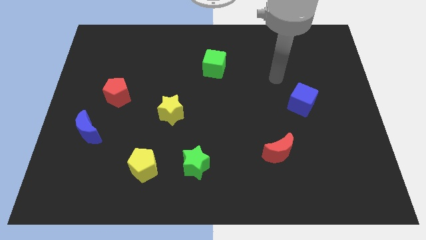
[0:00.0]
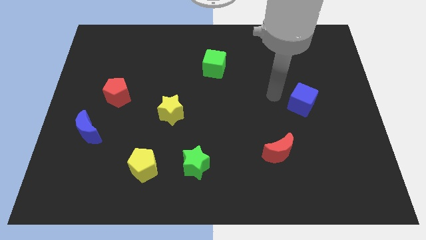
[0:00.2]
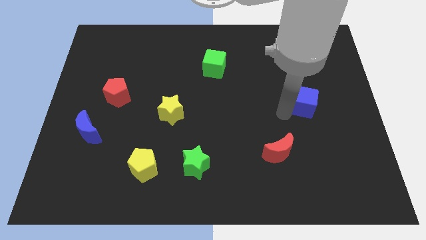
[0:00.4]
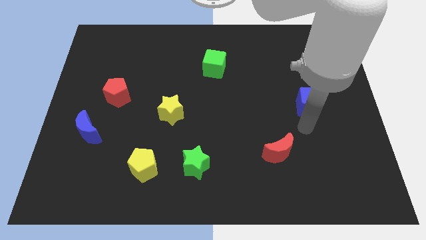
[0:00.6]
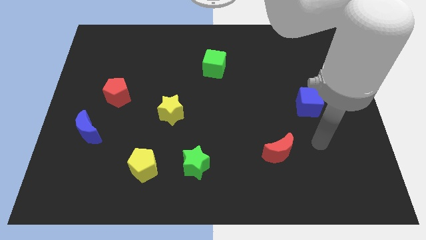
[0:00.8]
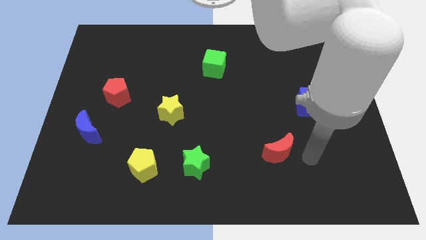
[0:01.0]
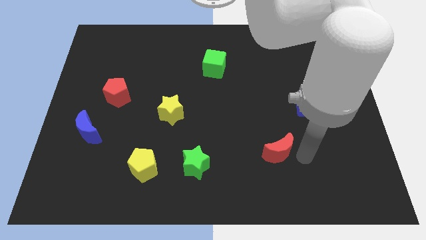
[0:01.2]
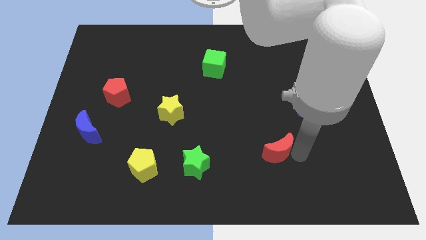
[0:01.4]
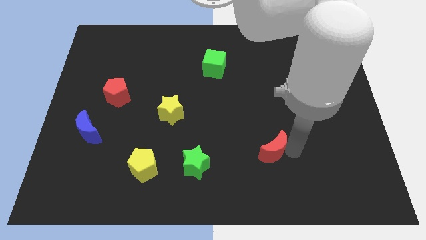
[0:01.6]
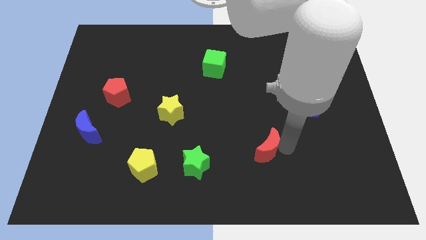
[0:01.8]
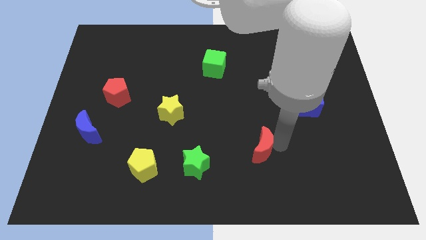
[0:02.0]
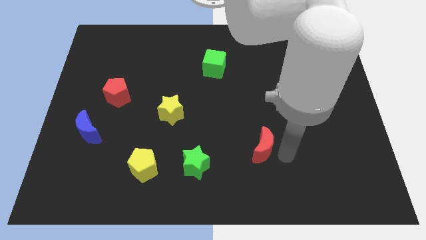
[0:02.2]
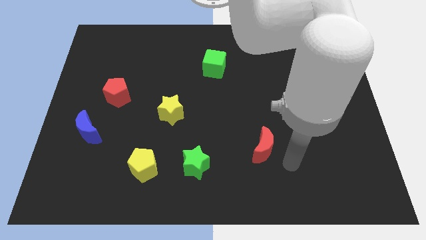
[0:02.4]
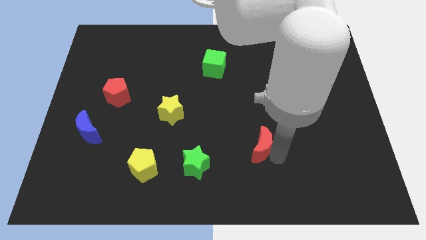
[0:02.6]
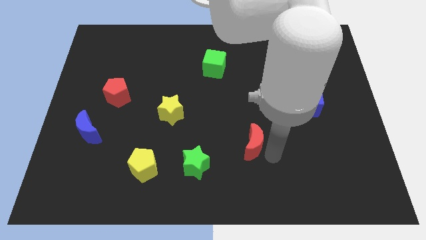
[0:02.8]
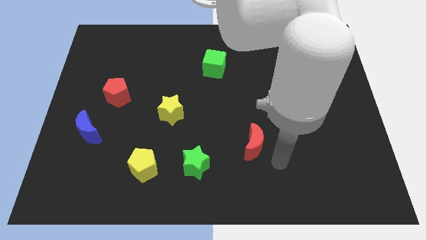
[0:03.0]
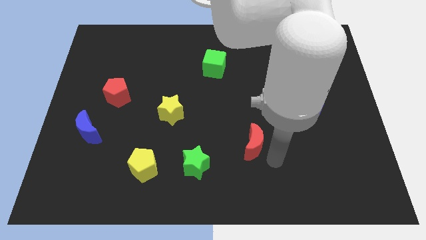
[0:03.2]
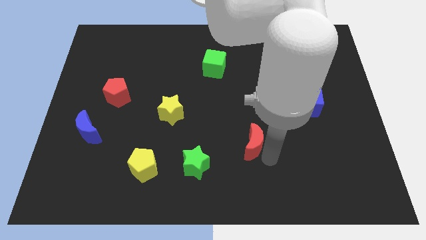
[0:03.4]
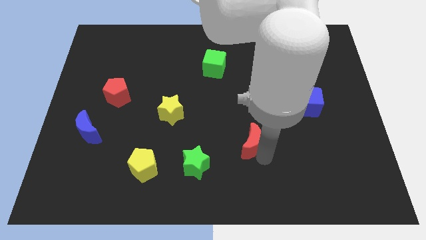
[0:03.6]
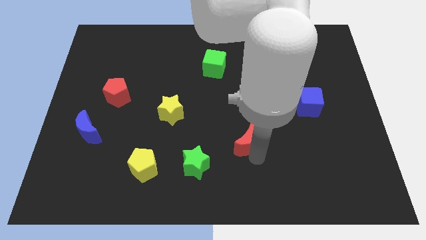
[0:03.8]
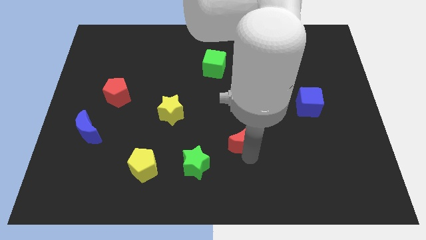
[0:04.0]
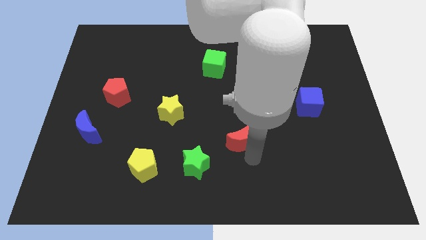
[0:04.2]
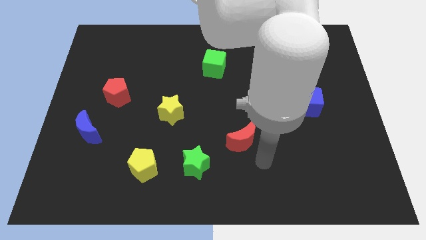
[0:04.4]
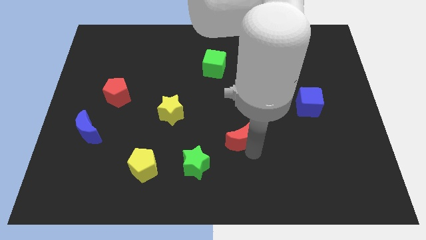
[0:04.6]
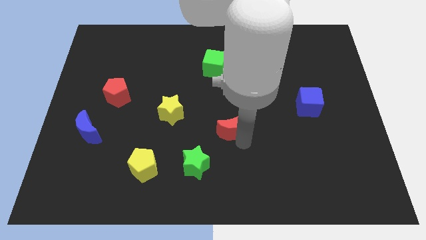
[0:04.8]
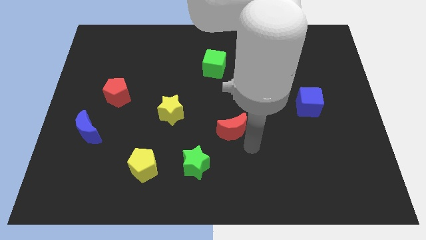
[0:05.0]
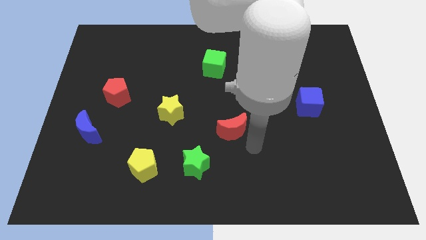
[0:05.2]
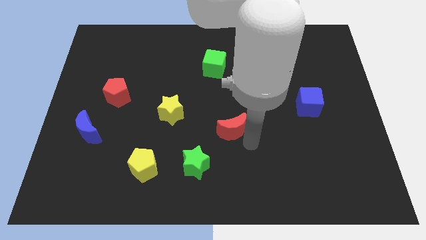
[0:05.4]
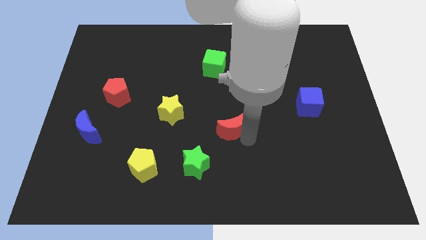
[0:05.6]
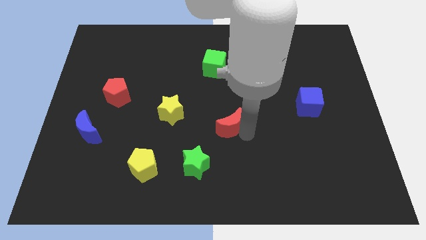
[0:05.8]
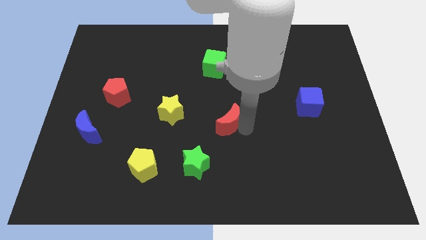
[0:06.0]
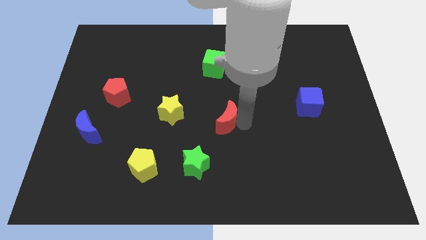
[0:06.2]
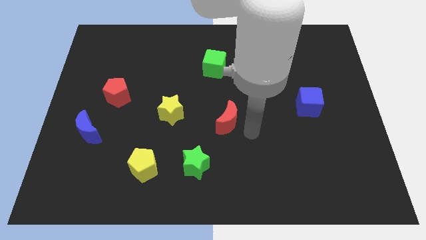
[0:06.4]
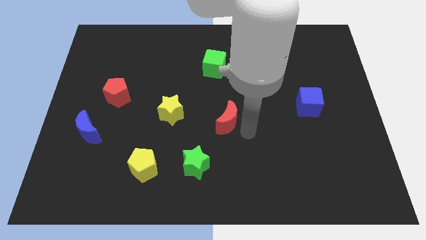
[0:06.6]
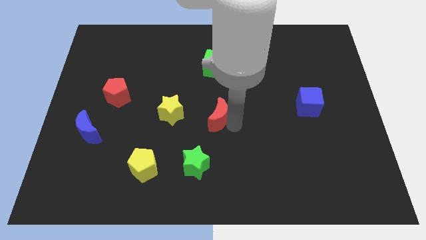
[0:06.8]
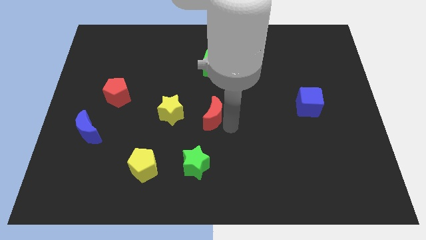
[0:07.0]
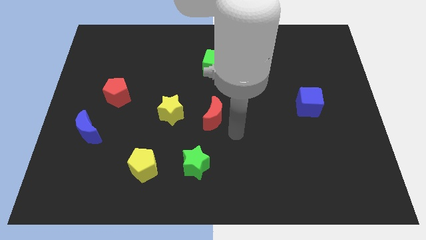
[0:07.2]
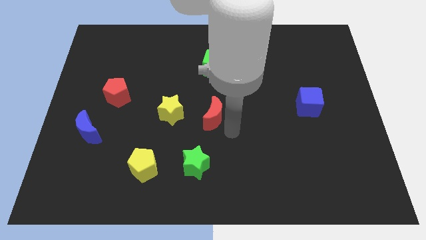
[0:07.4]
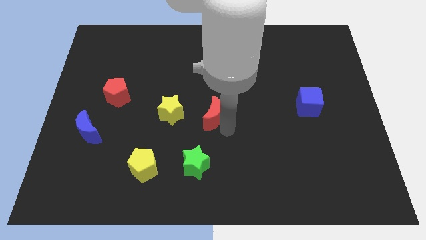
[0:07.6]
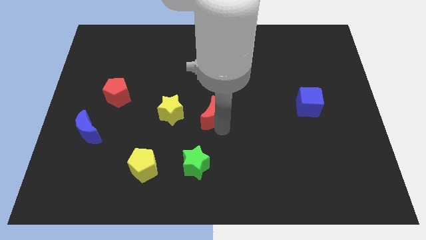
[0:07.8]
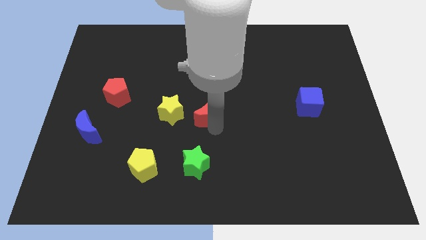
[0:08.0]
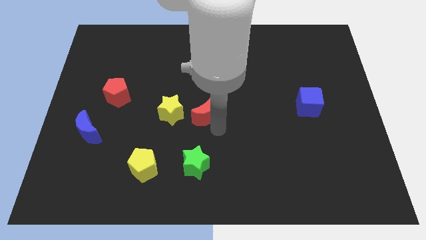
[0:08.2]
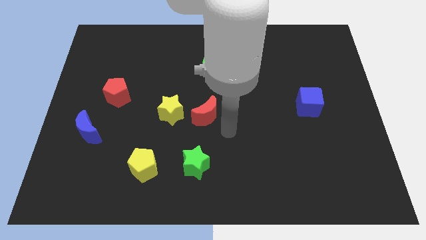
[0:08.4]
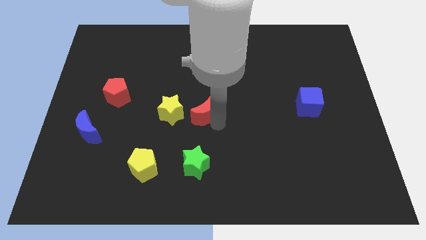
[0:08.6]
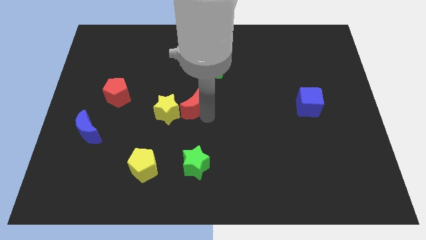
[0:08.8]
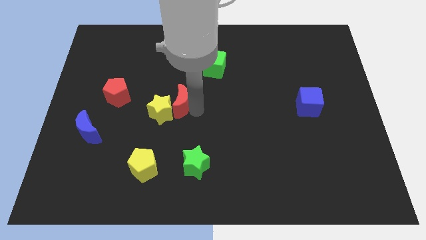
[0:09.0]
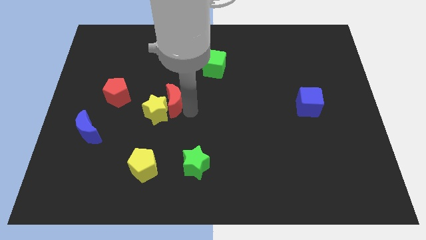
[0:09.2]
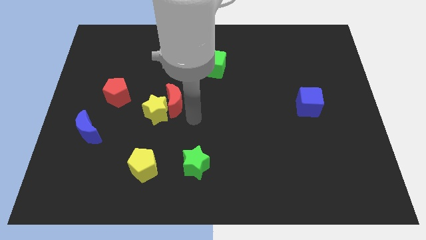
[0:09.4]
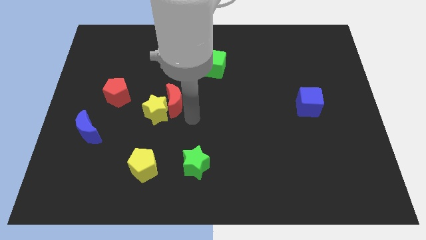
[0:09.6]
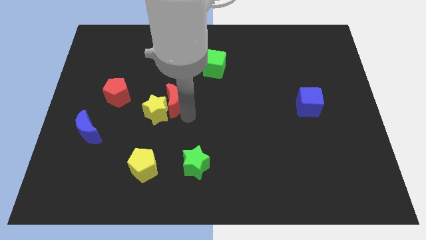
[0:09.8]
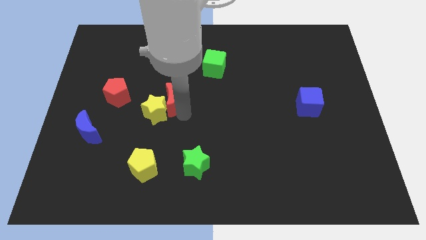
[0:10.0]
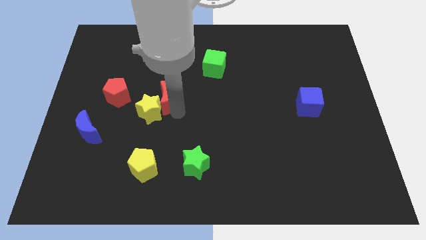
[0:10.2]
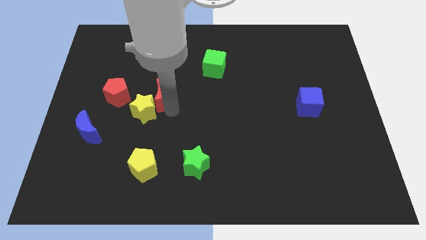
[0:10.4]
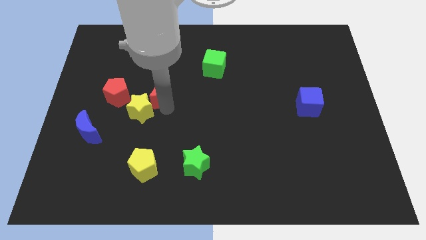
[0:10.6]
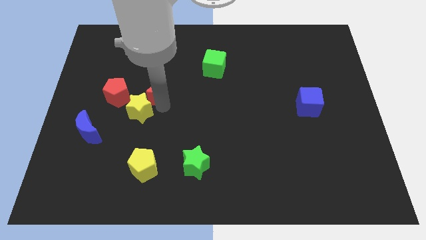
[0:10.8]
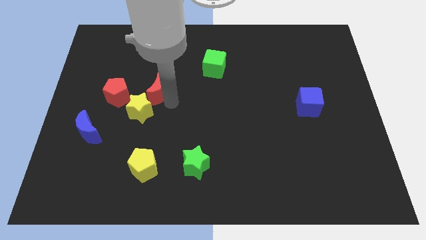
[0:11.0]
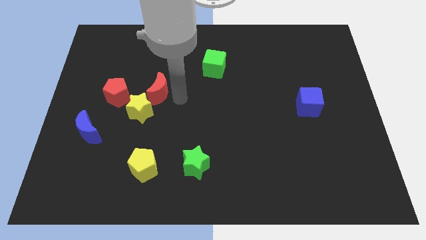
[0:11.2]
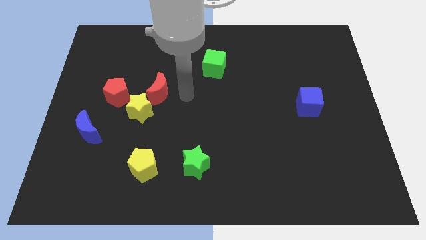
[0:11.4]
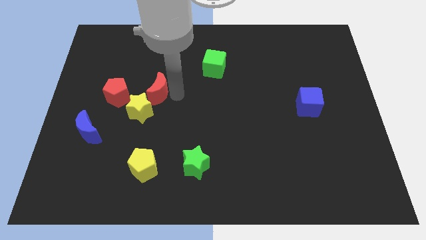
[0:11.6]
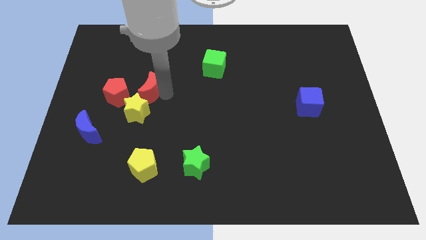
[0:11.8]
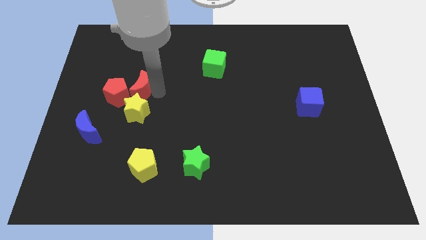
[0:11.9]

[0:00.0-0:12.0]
push the red moon next to the red pentagon

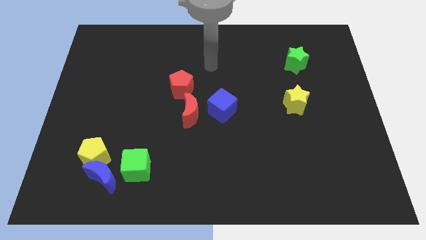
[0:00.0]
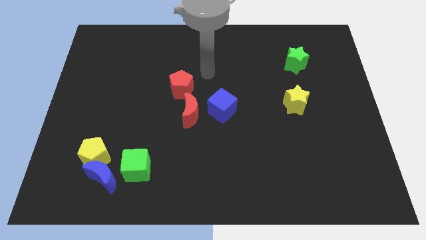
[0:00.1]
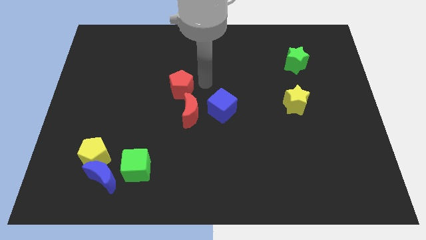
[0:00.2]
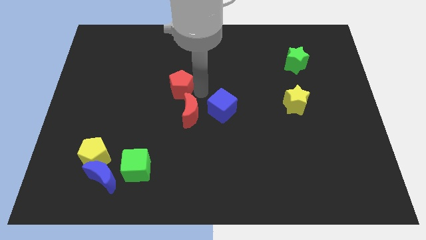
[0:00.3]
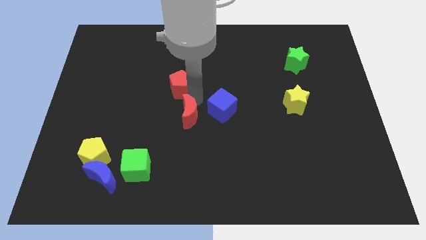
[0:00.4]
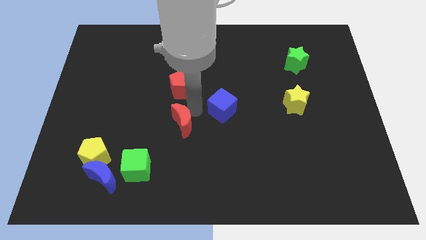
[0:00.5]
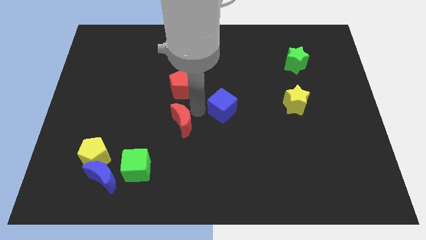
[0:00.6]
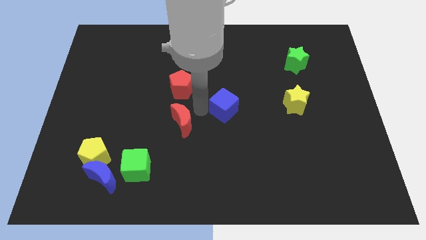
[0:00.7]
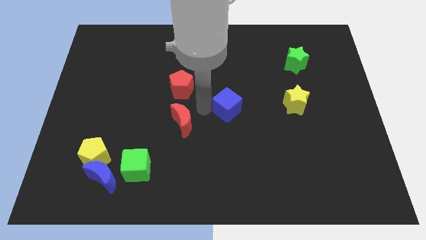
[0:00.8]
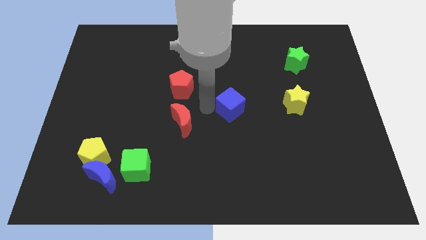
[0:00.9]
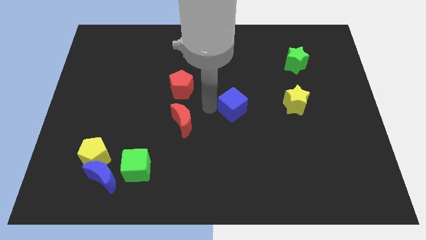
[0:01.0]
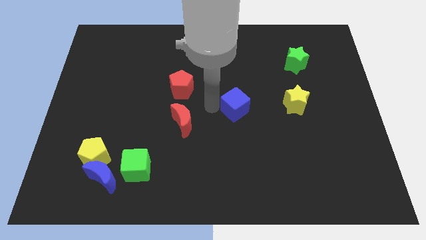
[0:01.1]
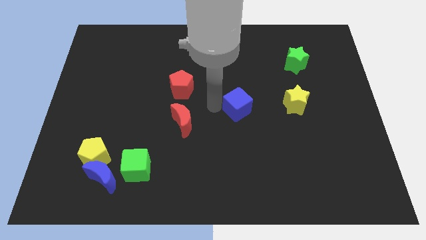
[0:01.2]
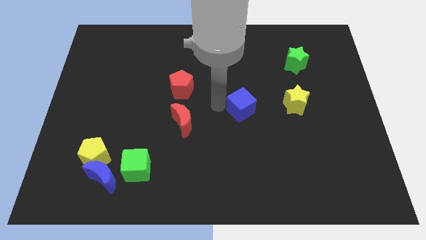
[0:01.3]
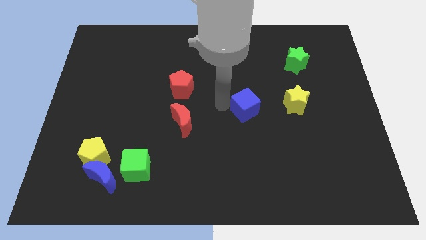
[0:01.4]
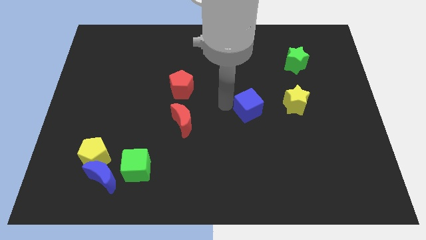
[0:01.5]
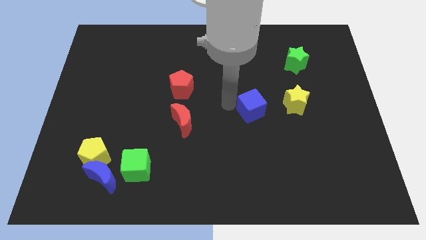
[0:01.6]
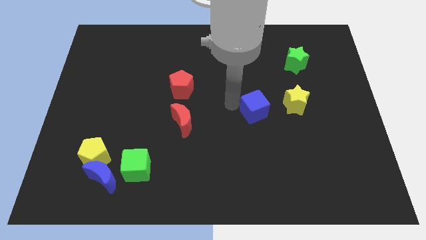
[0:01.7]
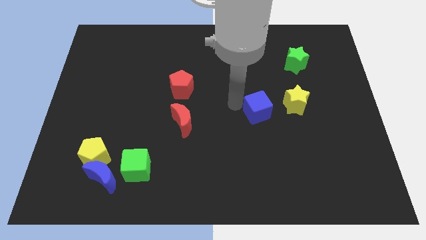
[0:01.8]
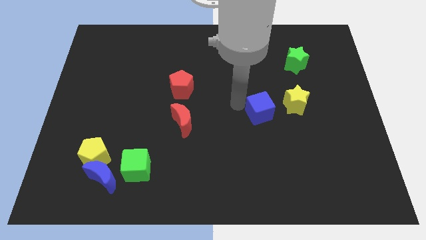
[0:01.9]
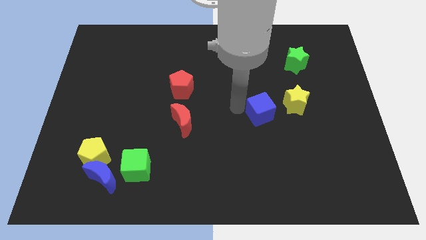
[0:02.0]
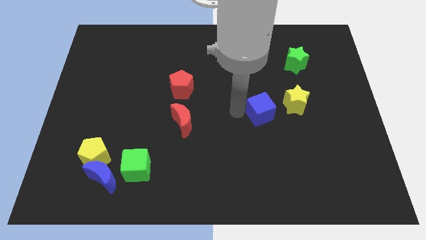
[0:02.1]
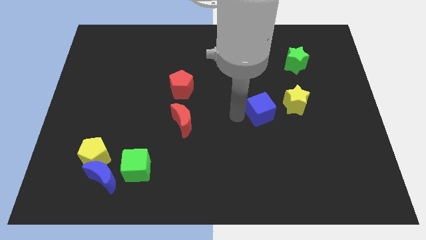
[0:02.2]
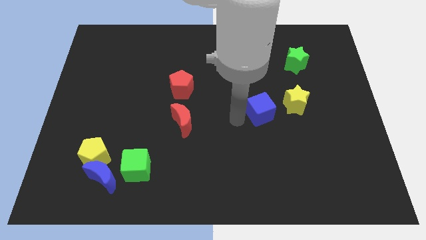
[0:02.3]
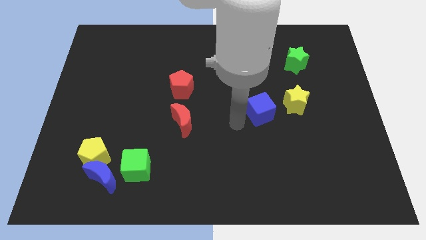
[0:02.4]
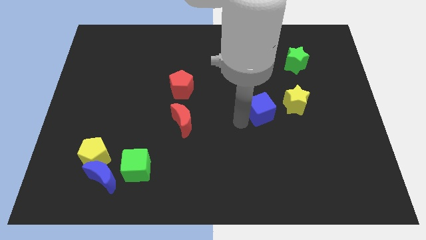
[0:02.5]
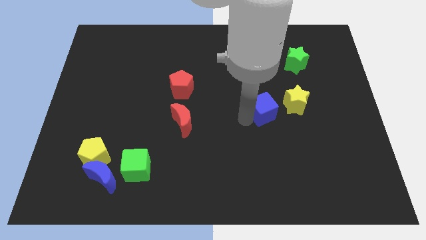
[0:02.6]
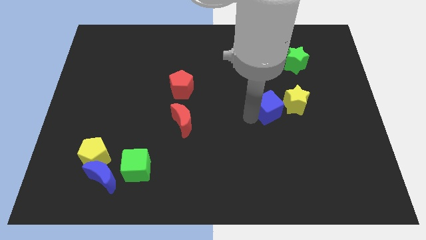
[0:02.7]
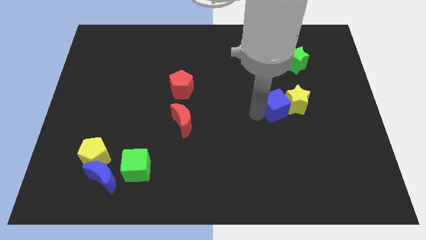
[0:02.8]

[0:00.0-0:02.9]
push the blue cube to the yellow star
